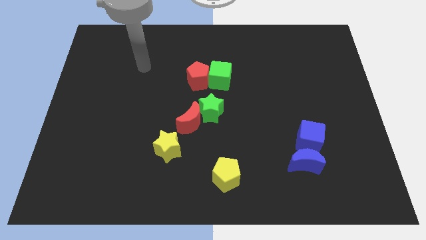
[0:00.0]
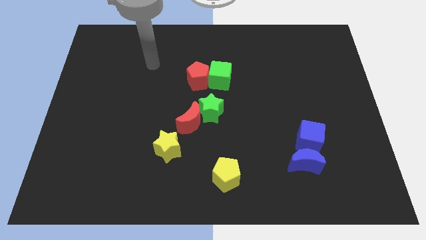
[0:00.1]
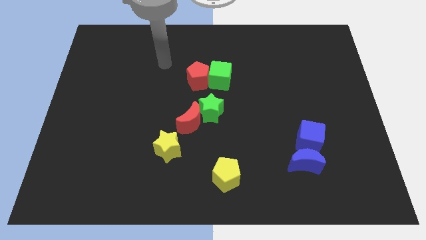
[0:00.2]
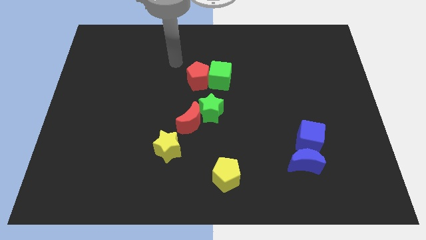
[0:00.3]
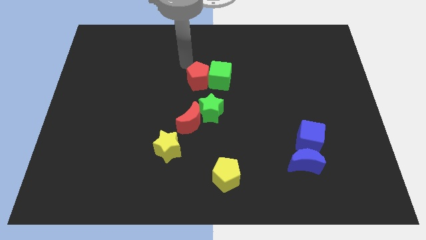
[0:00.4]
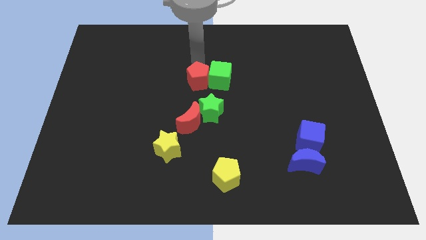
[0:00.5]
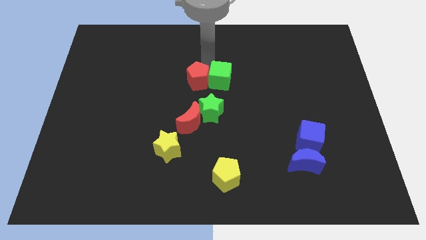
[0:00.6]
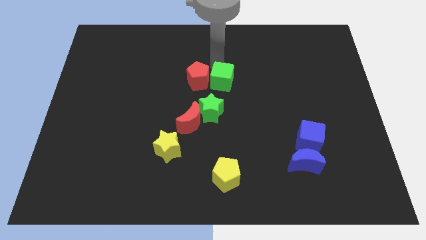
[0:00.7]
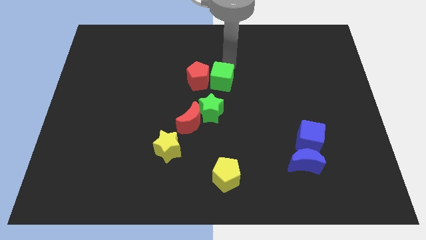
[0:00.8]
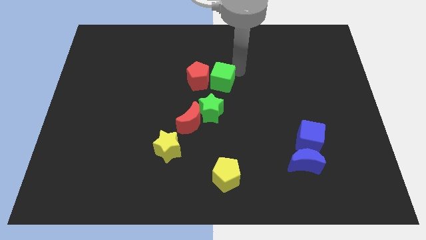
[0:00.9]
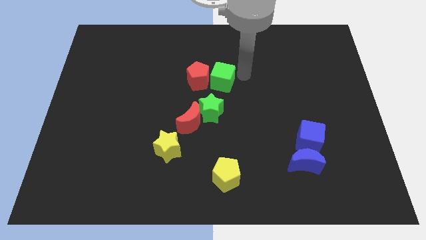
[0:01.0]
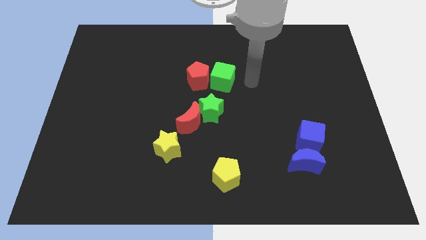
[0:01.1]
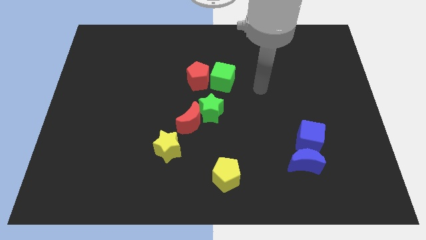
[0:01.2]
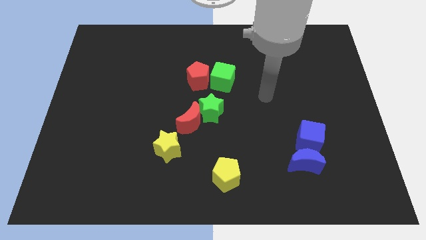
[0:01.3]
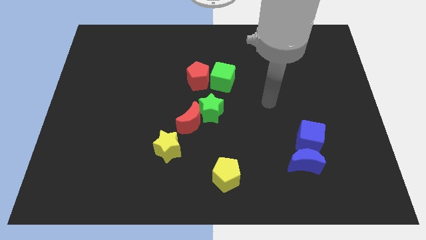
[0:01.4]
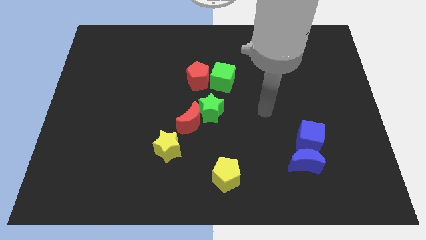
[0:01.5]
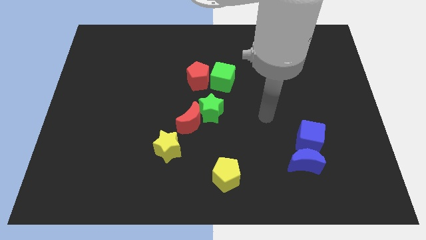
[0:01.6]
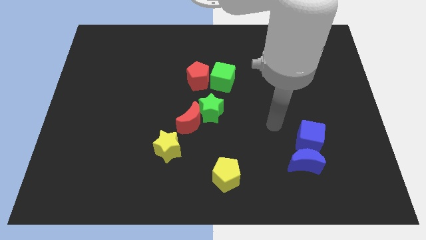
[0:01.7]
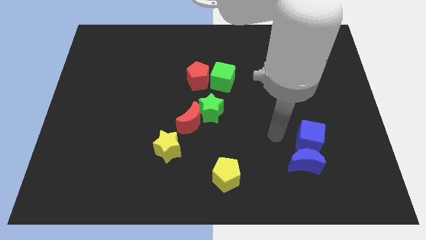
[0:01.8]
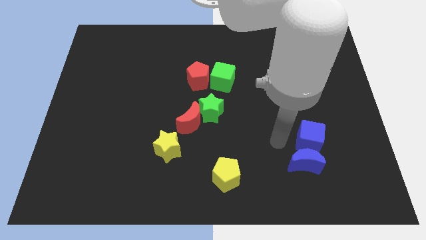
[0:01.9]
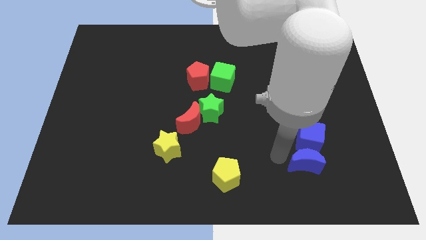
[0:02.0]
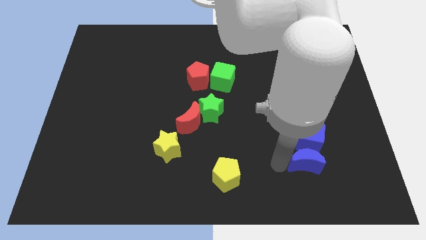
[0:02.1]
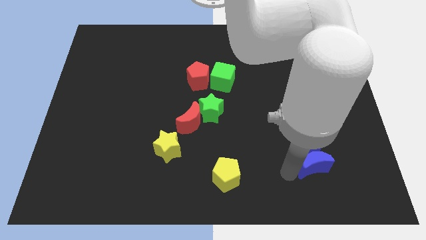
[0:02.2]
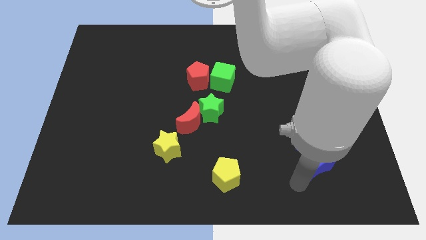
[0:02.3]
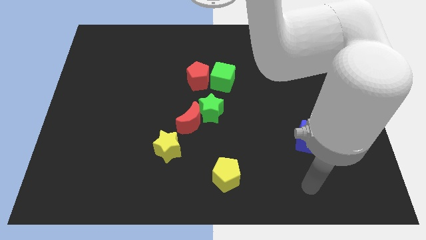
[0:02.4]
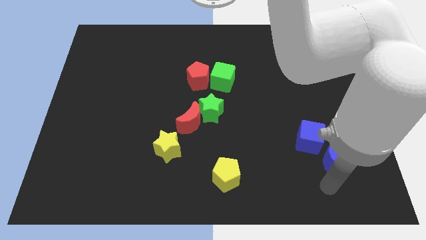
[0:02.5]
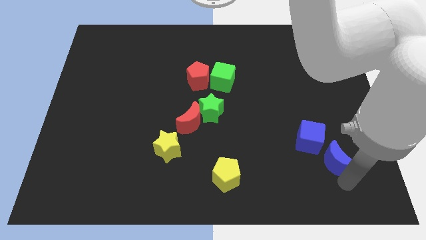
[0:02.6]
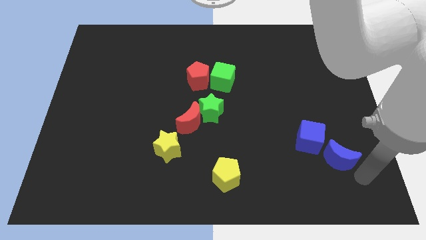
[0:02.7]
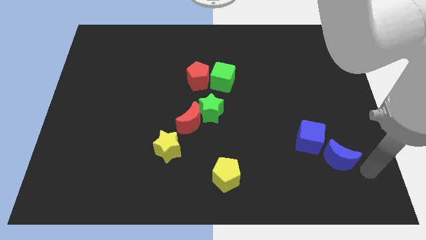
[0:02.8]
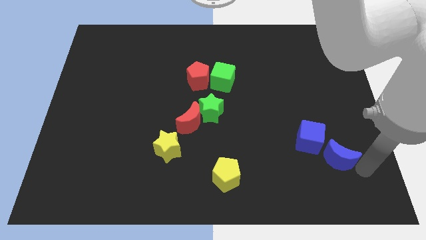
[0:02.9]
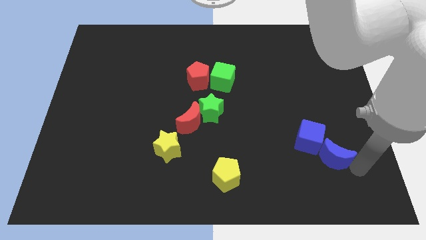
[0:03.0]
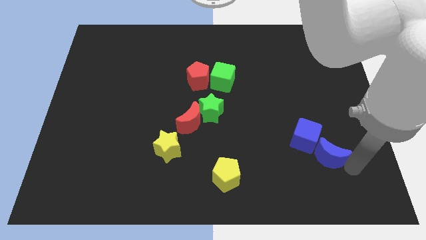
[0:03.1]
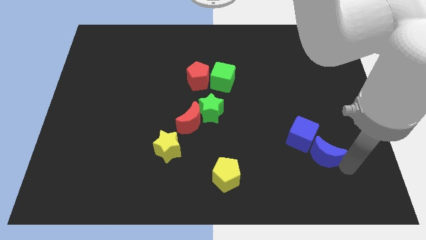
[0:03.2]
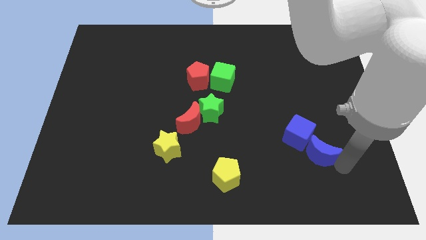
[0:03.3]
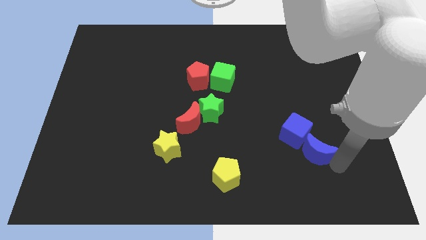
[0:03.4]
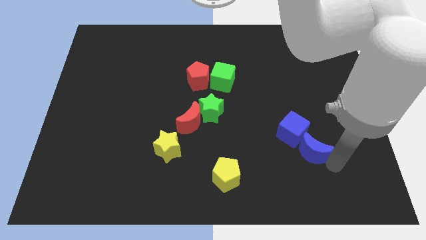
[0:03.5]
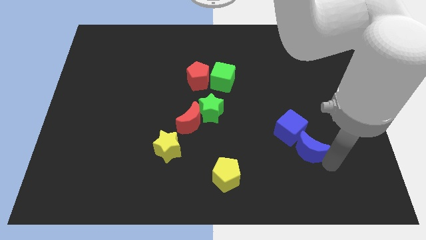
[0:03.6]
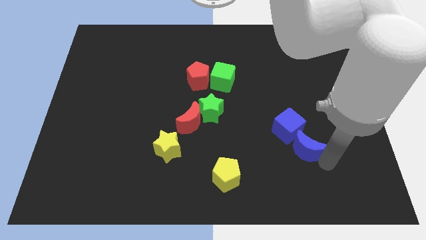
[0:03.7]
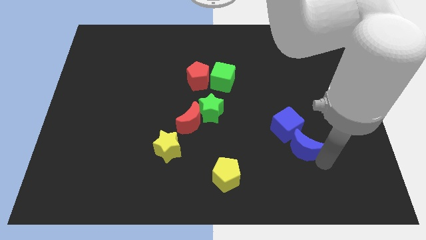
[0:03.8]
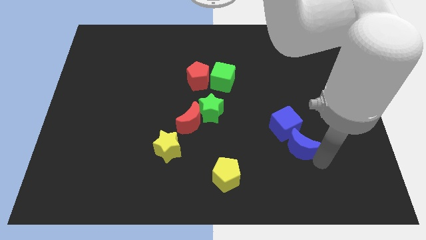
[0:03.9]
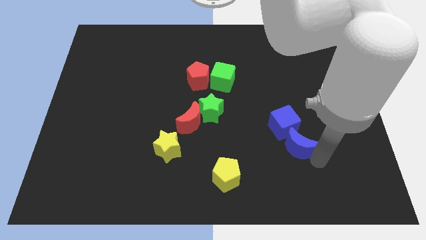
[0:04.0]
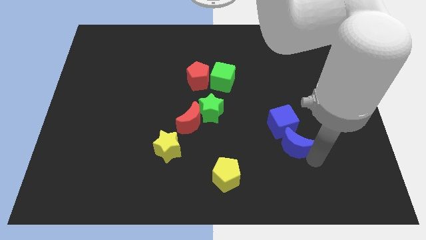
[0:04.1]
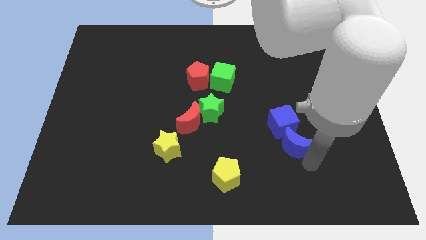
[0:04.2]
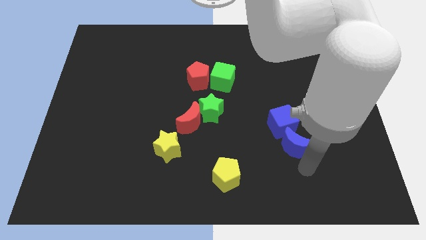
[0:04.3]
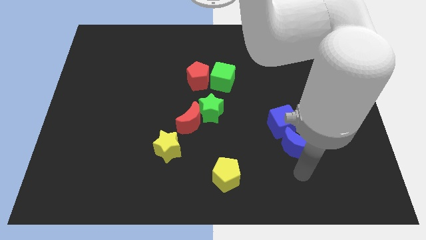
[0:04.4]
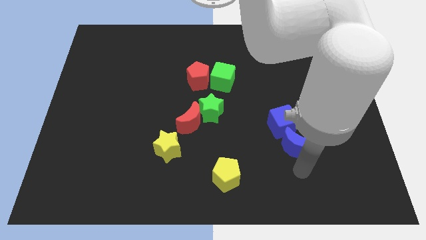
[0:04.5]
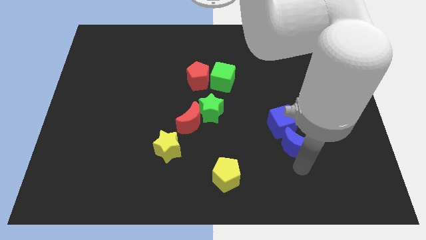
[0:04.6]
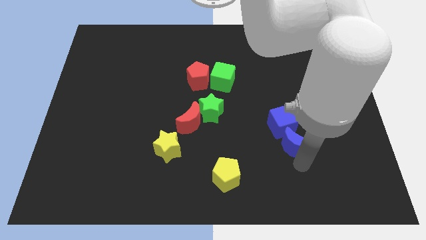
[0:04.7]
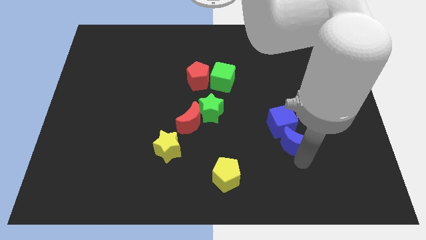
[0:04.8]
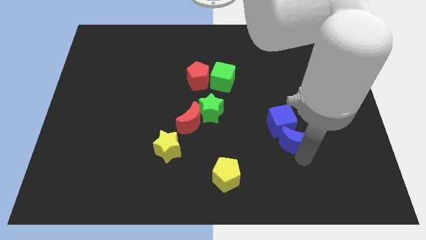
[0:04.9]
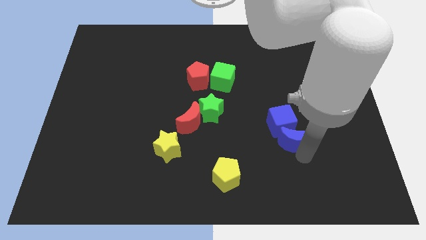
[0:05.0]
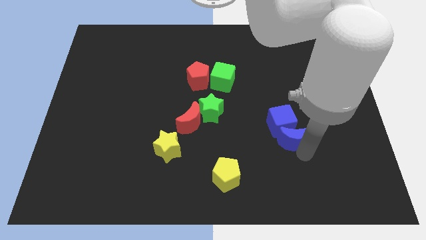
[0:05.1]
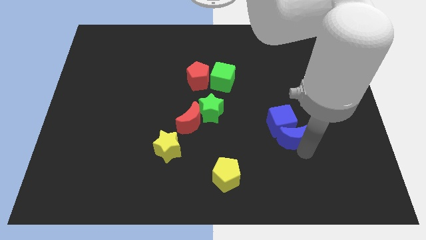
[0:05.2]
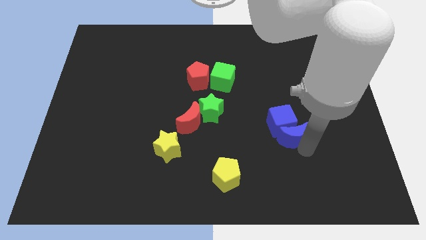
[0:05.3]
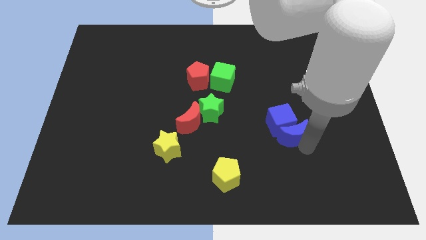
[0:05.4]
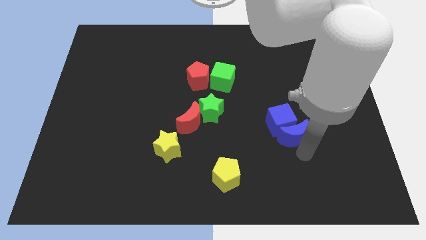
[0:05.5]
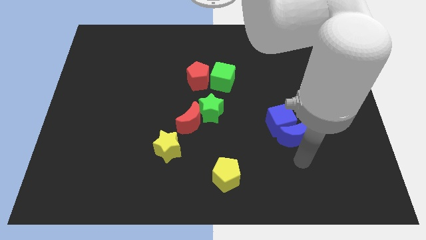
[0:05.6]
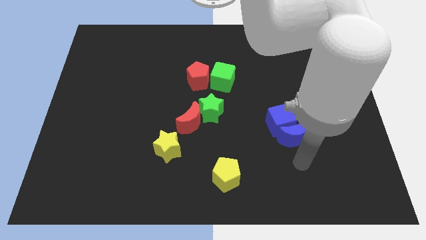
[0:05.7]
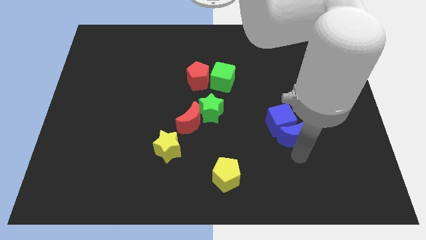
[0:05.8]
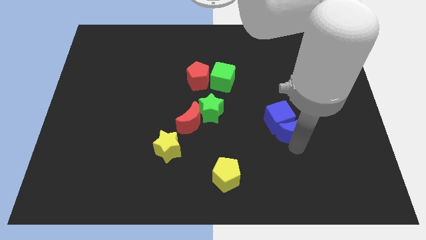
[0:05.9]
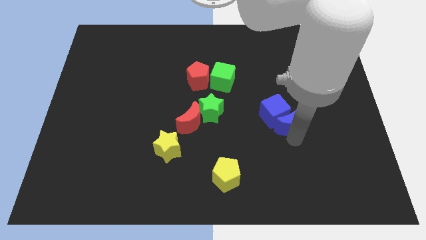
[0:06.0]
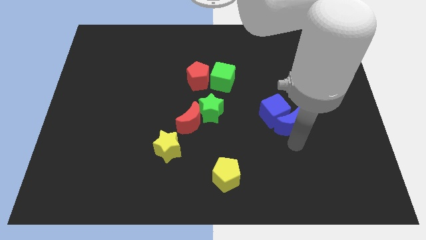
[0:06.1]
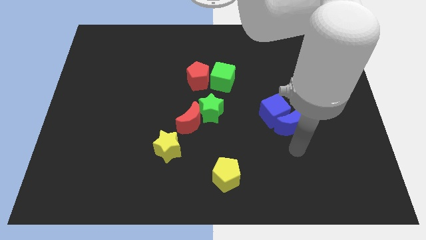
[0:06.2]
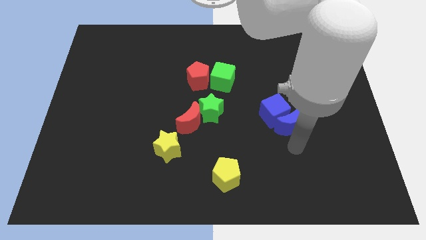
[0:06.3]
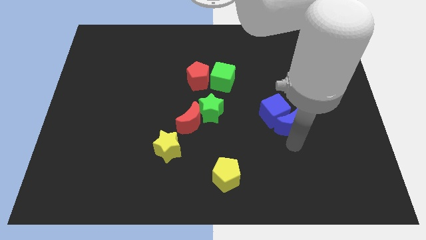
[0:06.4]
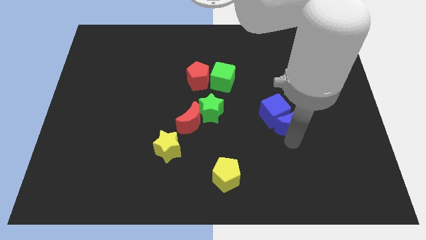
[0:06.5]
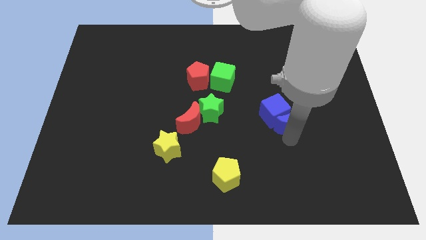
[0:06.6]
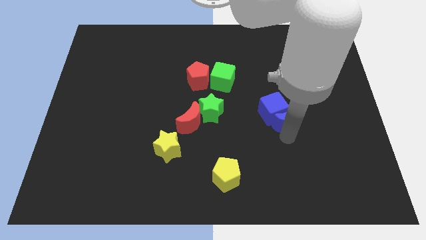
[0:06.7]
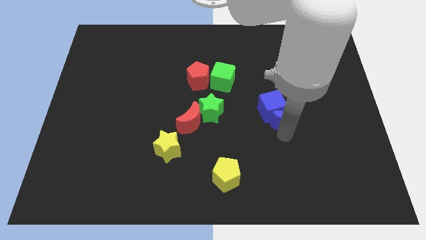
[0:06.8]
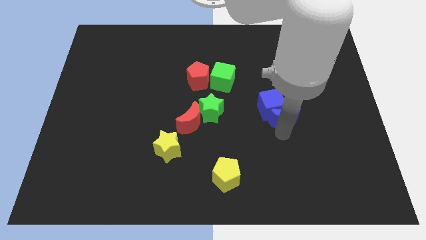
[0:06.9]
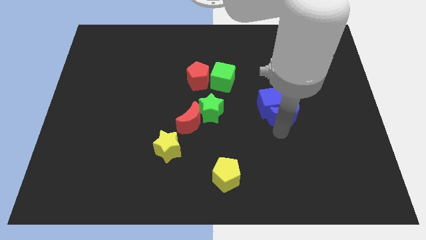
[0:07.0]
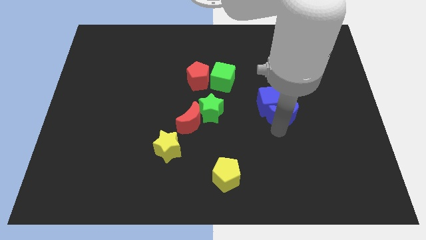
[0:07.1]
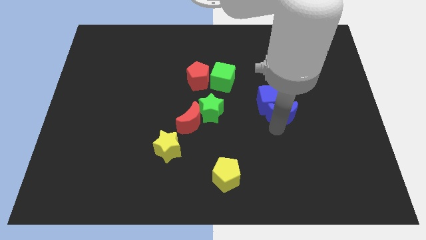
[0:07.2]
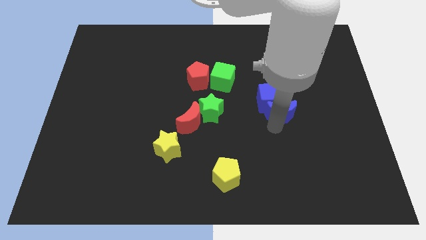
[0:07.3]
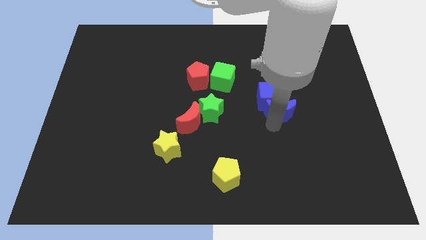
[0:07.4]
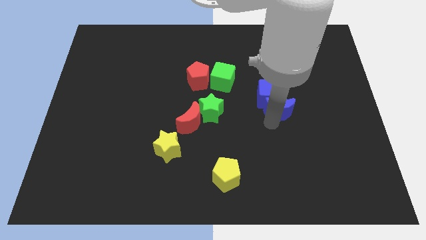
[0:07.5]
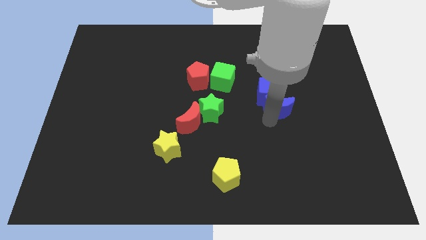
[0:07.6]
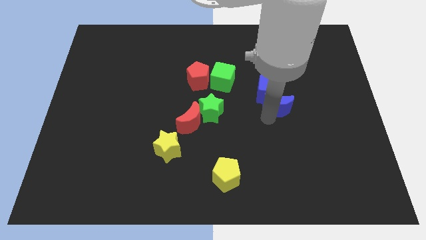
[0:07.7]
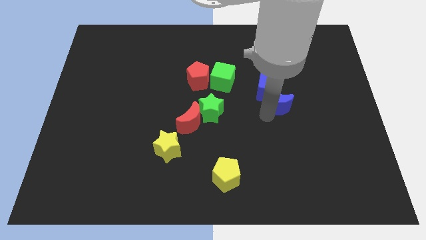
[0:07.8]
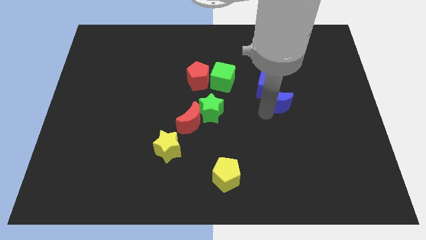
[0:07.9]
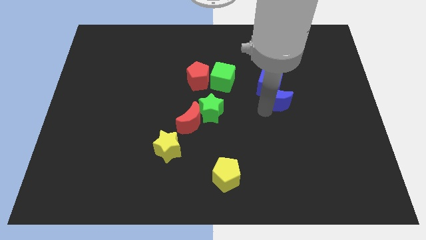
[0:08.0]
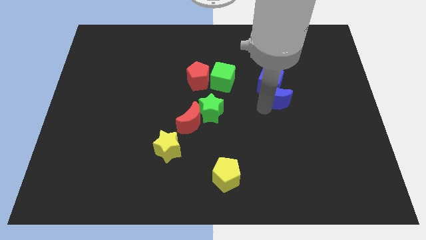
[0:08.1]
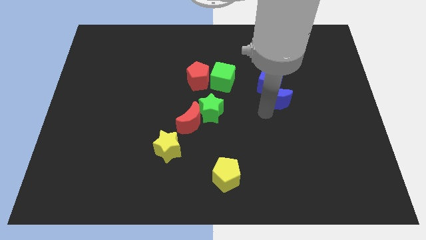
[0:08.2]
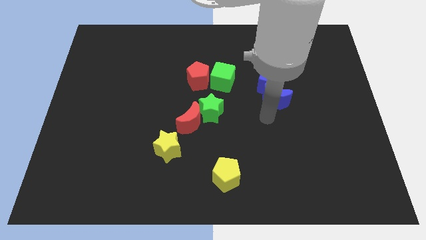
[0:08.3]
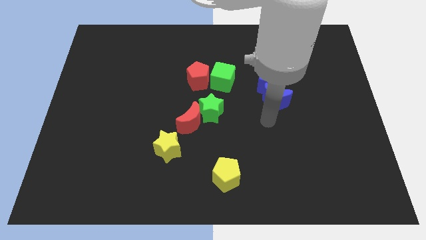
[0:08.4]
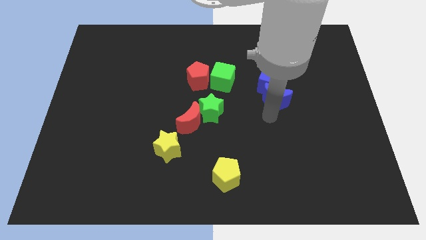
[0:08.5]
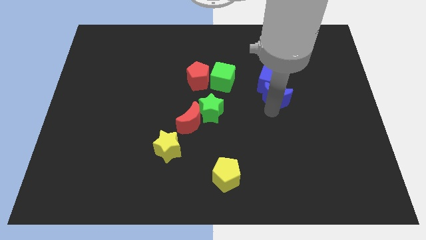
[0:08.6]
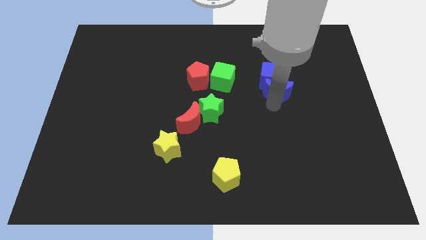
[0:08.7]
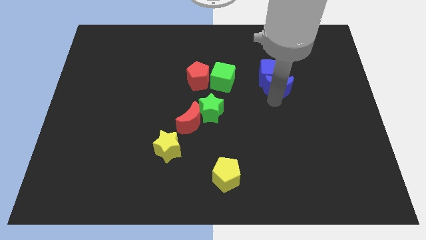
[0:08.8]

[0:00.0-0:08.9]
move the blue moon up
